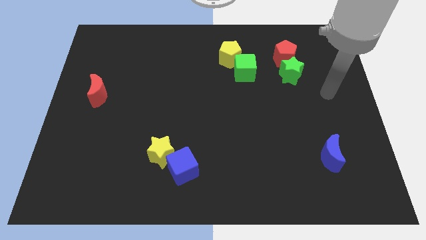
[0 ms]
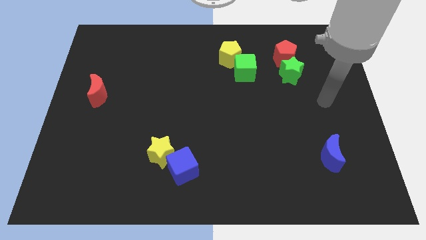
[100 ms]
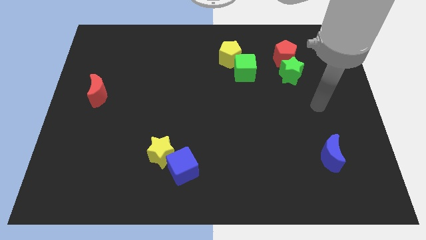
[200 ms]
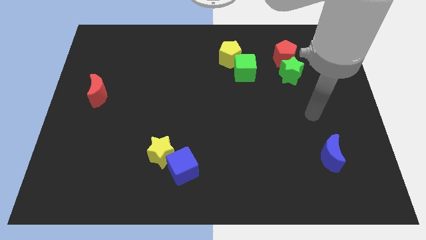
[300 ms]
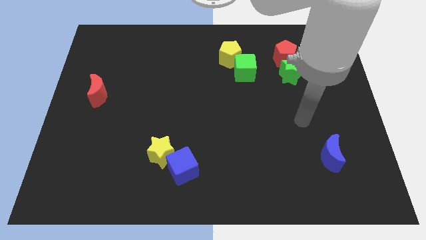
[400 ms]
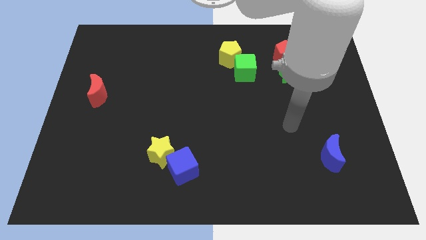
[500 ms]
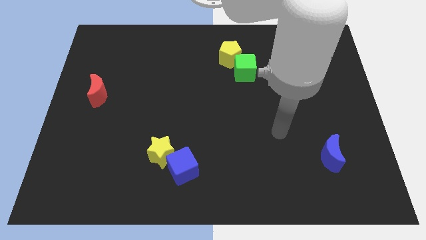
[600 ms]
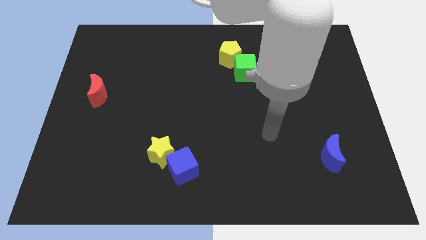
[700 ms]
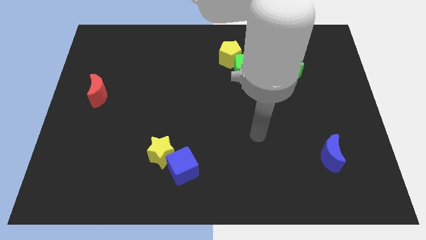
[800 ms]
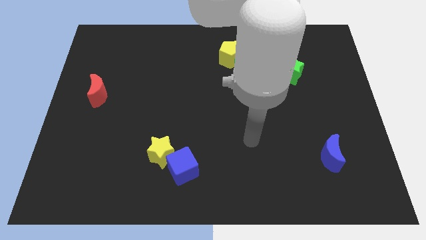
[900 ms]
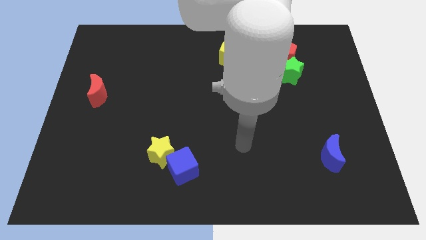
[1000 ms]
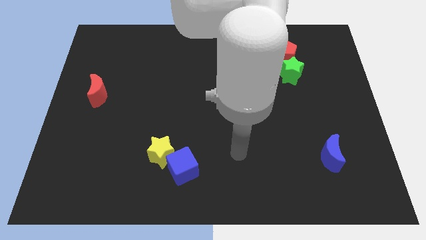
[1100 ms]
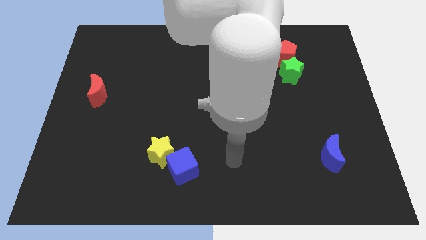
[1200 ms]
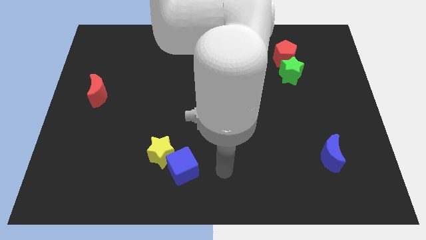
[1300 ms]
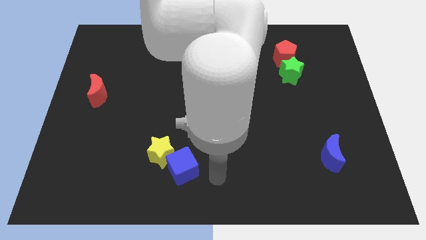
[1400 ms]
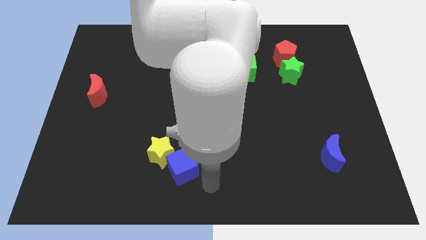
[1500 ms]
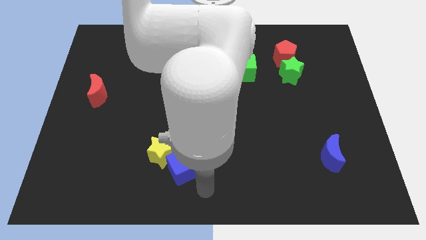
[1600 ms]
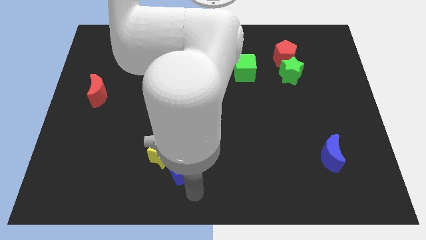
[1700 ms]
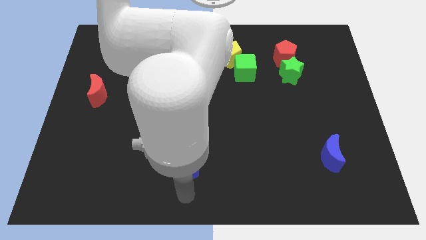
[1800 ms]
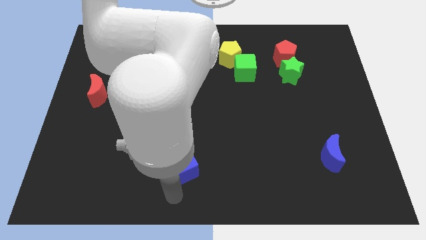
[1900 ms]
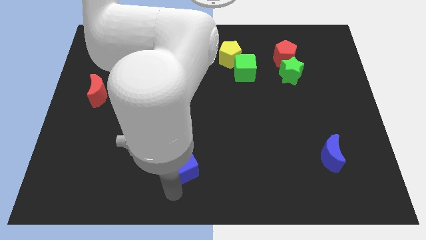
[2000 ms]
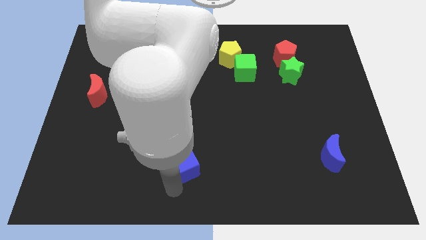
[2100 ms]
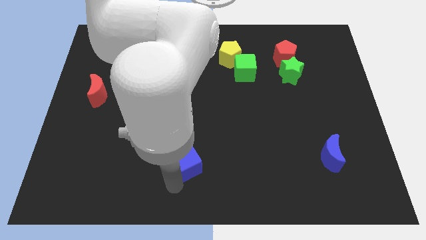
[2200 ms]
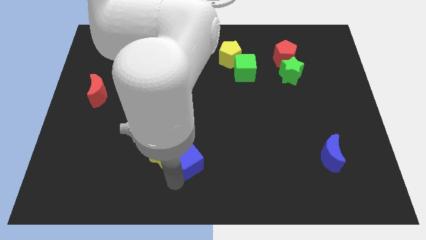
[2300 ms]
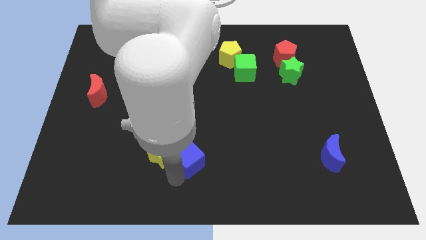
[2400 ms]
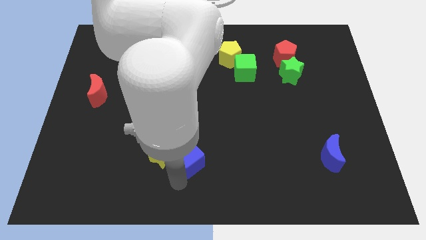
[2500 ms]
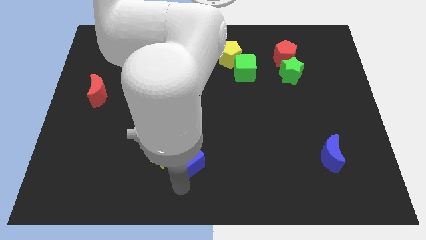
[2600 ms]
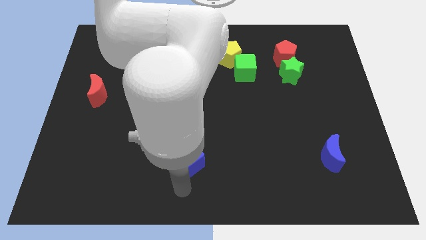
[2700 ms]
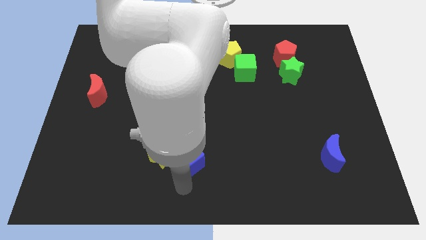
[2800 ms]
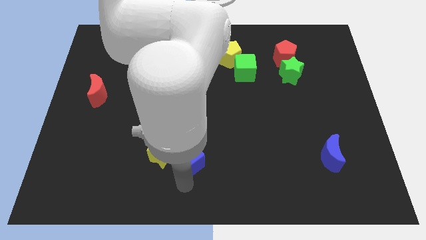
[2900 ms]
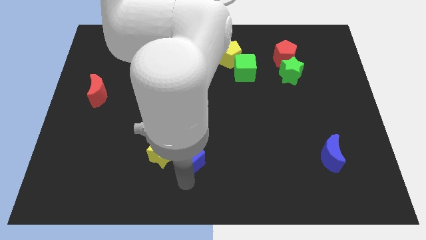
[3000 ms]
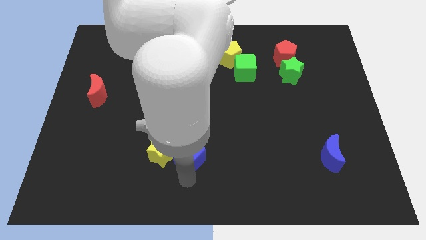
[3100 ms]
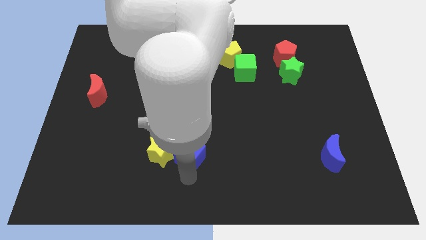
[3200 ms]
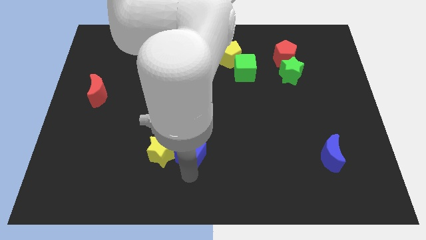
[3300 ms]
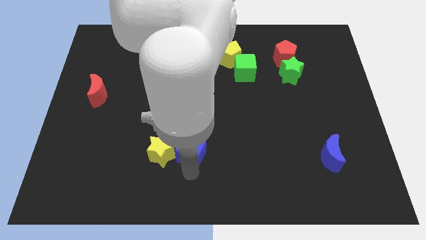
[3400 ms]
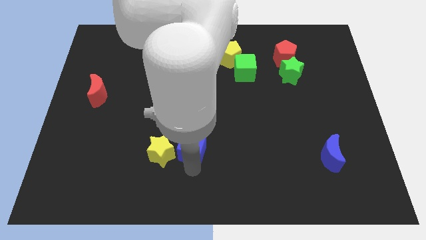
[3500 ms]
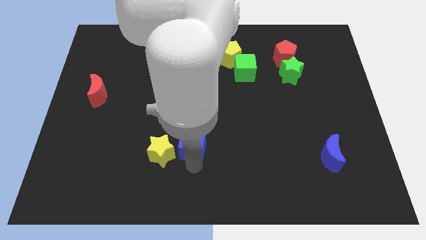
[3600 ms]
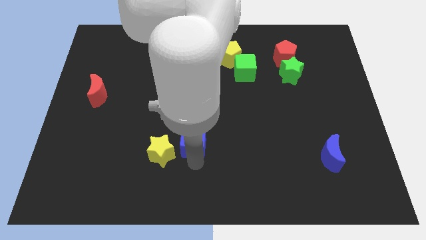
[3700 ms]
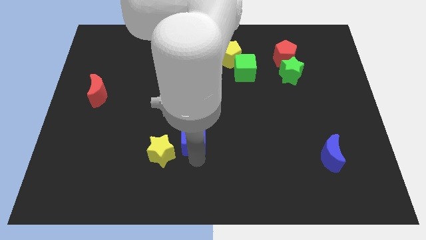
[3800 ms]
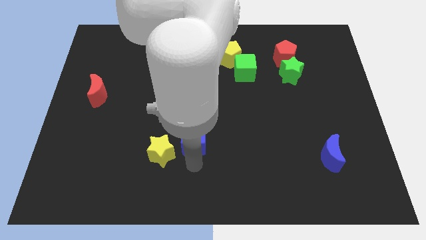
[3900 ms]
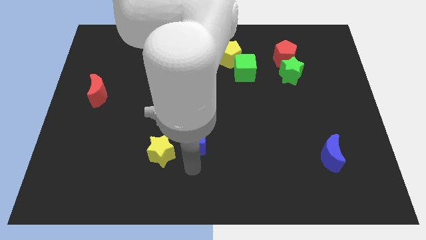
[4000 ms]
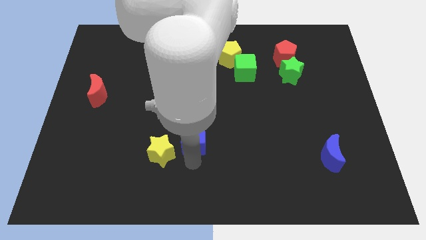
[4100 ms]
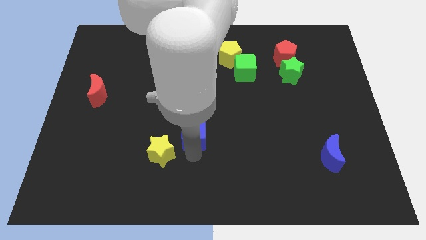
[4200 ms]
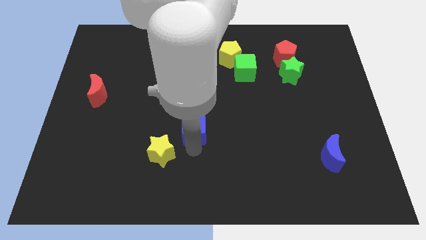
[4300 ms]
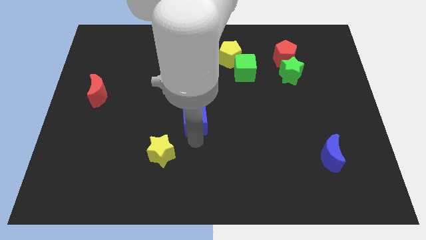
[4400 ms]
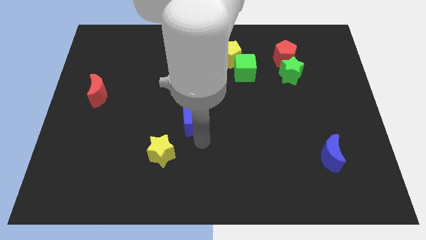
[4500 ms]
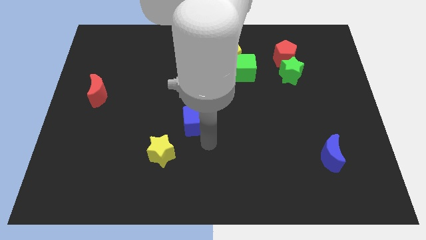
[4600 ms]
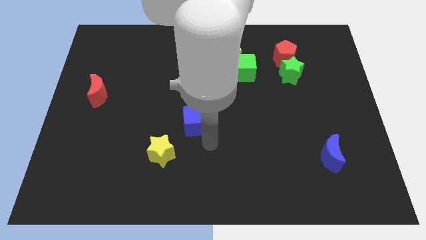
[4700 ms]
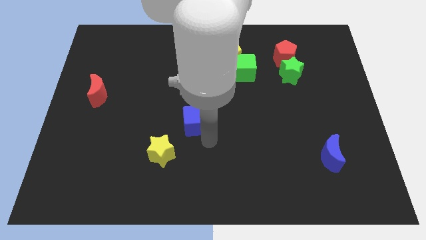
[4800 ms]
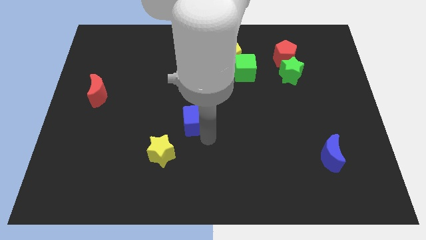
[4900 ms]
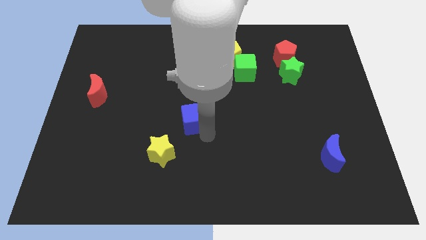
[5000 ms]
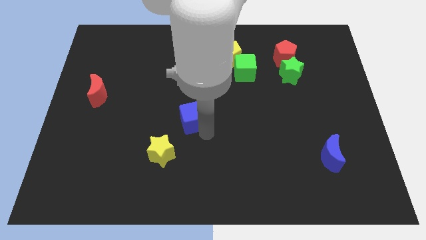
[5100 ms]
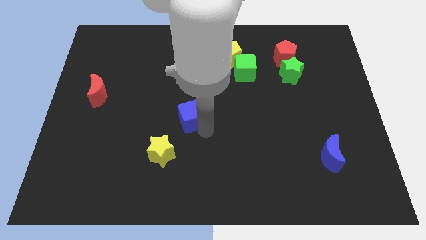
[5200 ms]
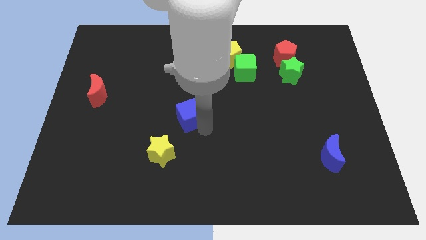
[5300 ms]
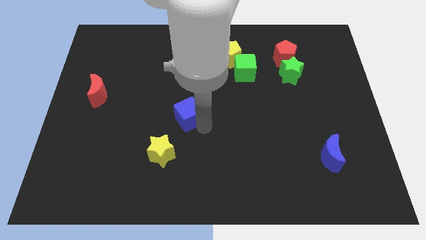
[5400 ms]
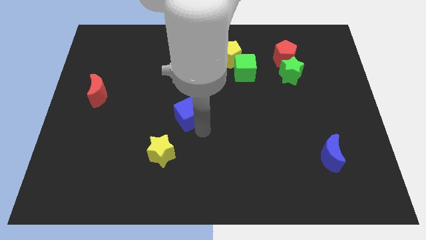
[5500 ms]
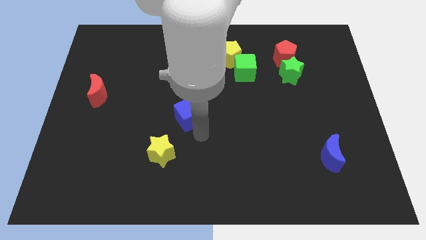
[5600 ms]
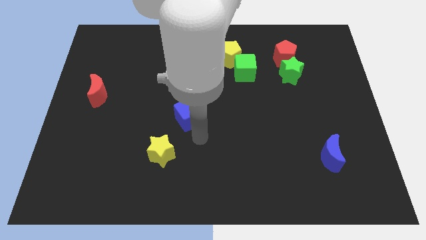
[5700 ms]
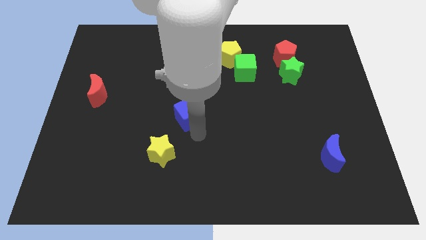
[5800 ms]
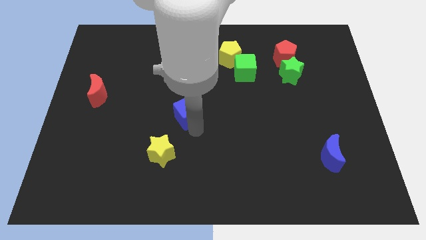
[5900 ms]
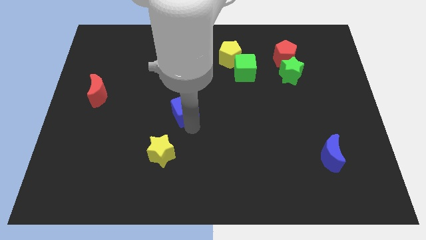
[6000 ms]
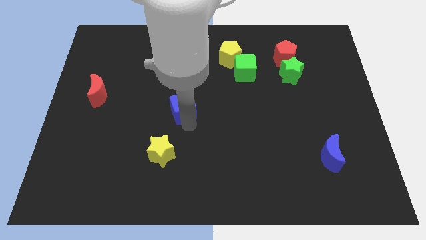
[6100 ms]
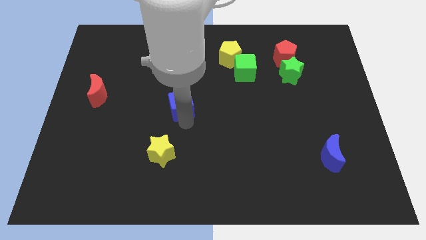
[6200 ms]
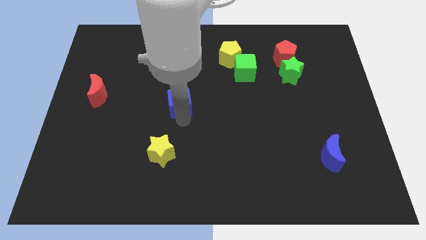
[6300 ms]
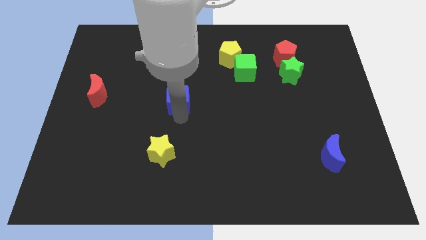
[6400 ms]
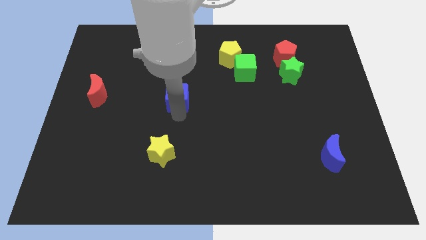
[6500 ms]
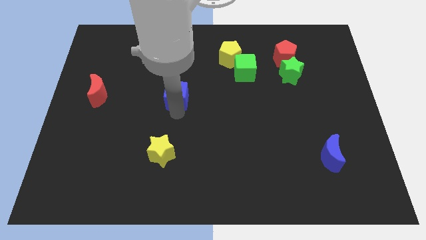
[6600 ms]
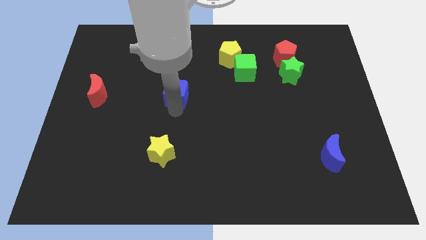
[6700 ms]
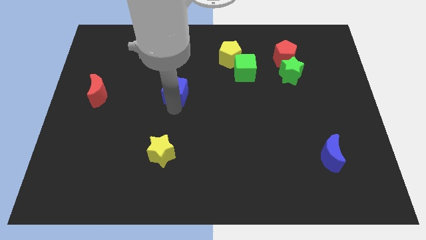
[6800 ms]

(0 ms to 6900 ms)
push the blue cube upwards

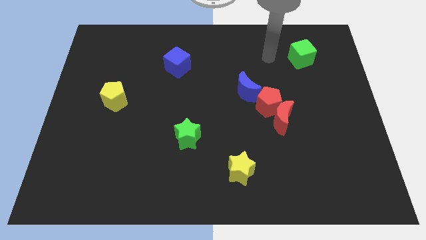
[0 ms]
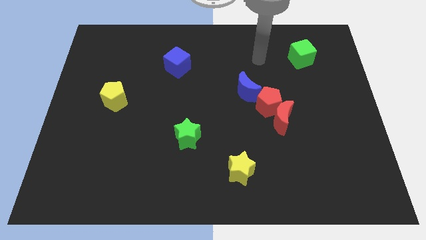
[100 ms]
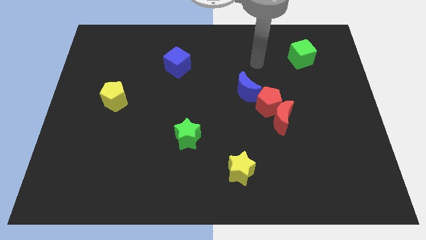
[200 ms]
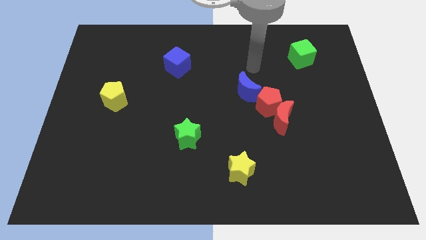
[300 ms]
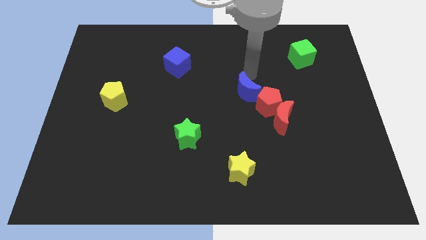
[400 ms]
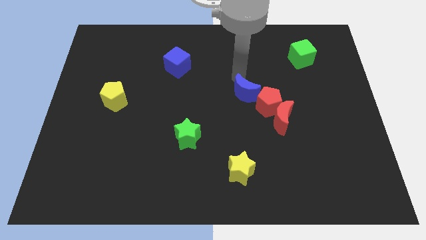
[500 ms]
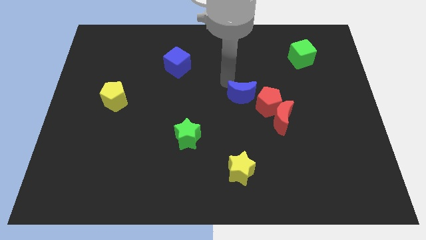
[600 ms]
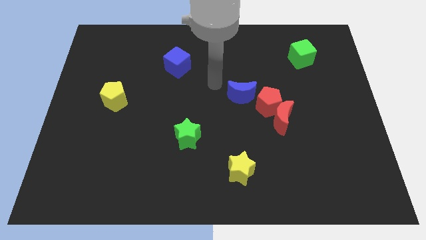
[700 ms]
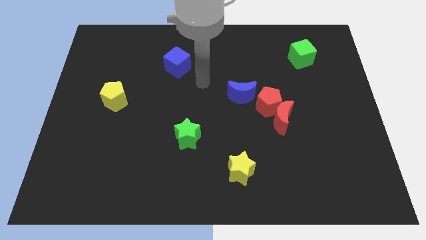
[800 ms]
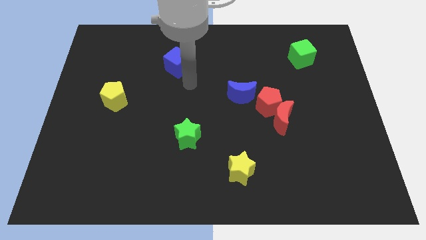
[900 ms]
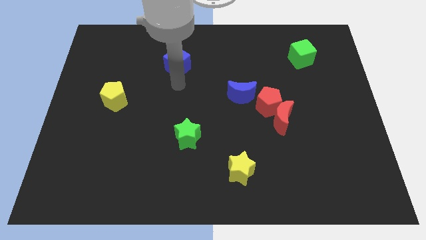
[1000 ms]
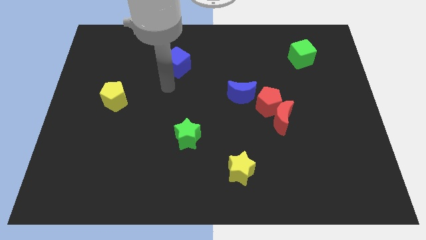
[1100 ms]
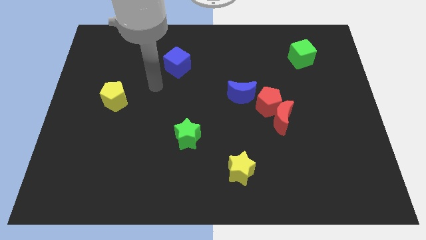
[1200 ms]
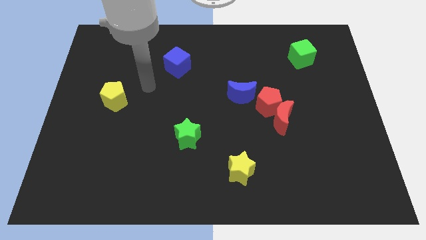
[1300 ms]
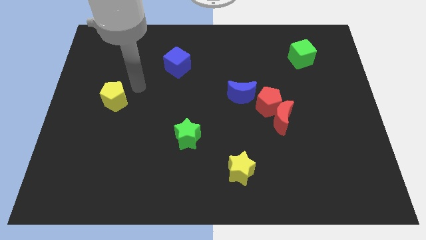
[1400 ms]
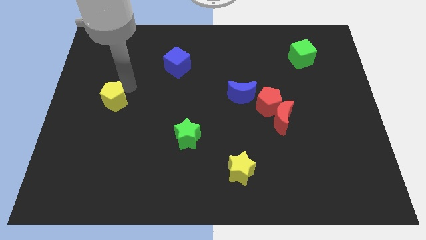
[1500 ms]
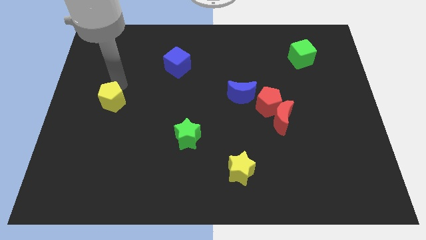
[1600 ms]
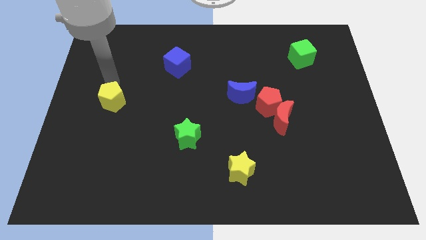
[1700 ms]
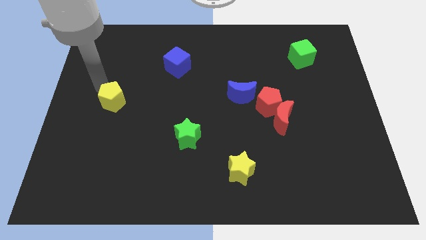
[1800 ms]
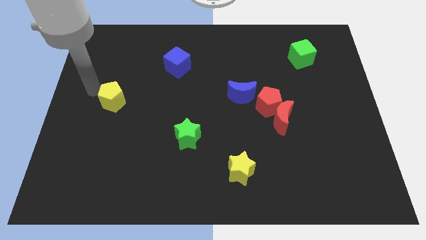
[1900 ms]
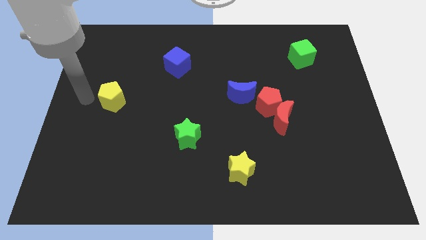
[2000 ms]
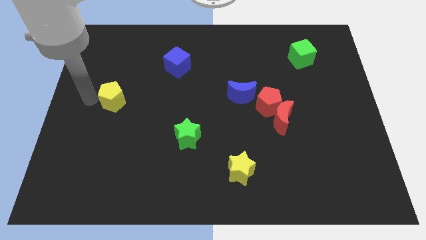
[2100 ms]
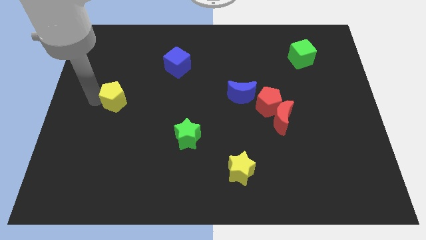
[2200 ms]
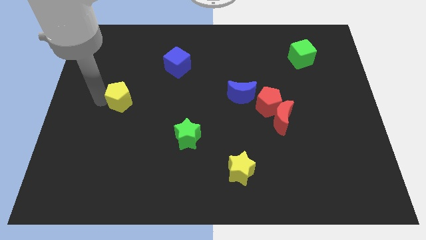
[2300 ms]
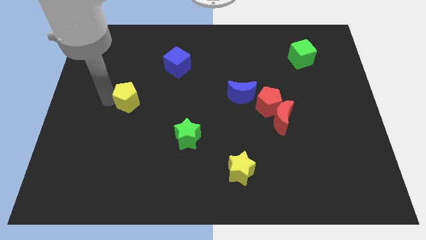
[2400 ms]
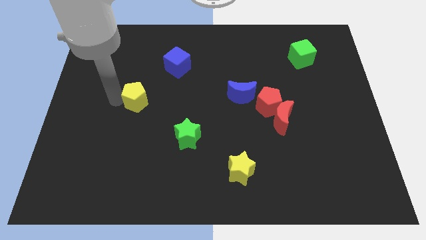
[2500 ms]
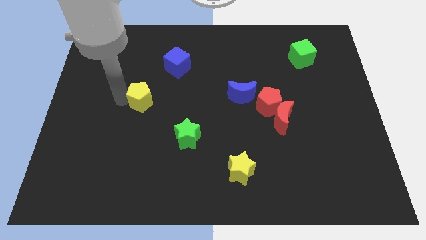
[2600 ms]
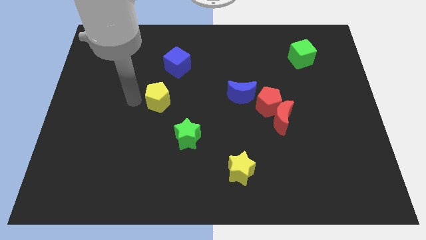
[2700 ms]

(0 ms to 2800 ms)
slightly move the yellow pentagon right
